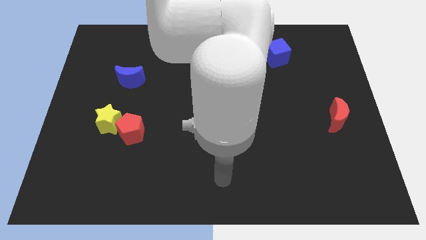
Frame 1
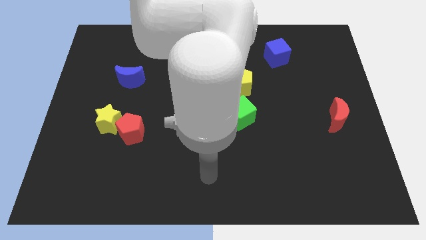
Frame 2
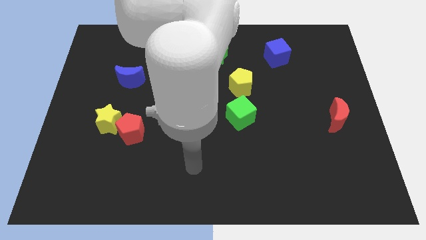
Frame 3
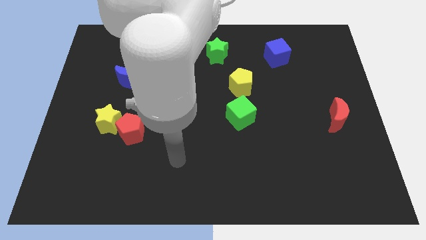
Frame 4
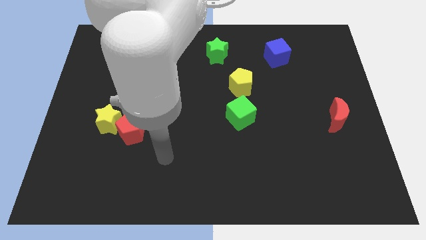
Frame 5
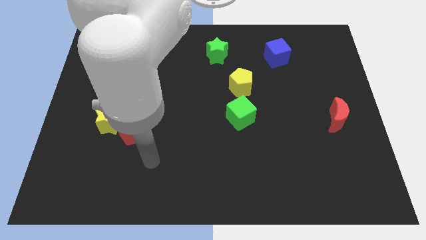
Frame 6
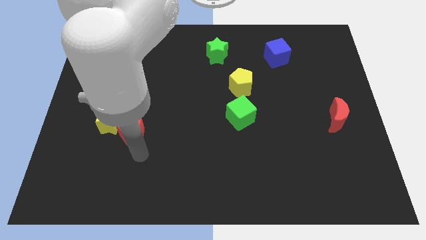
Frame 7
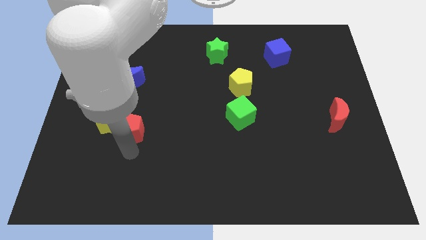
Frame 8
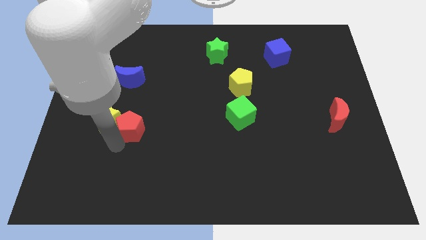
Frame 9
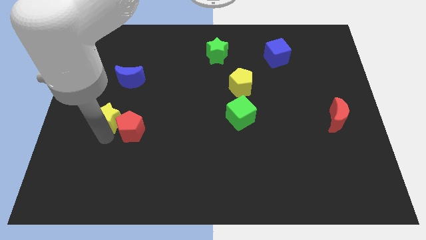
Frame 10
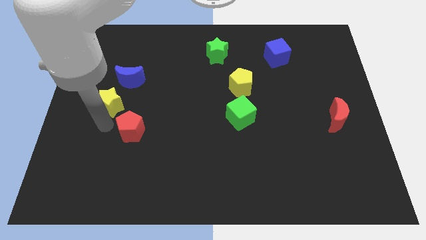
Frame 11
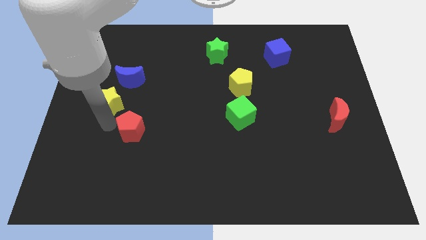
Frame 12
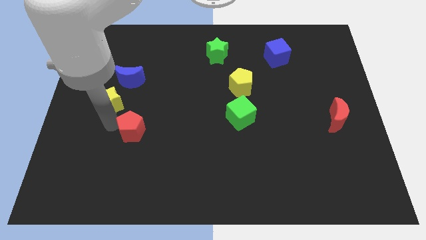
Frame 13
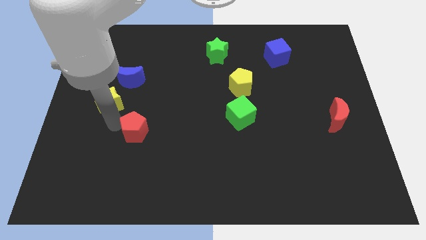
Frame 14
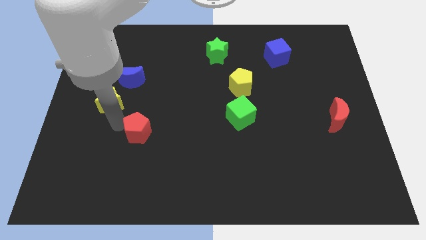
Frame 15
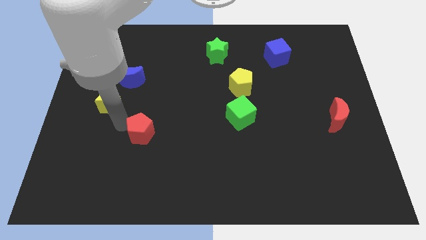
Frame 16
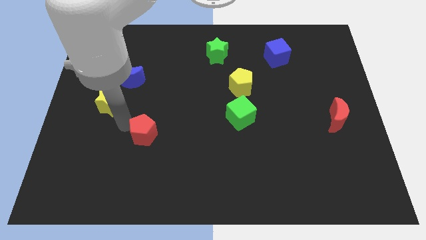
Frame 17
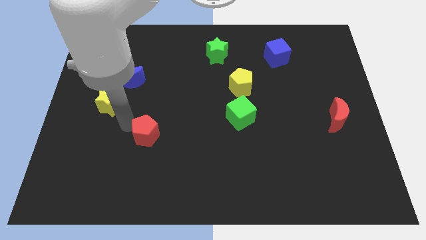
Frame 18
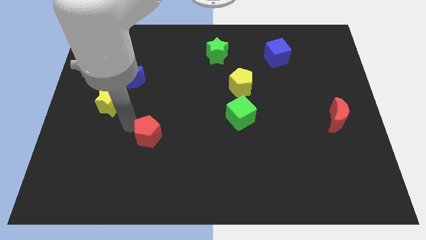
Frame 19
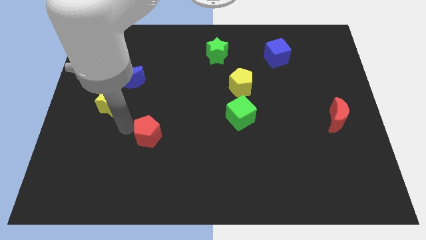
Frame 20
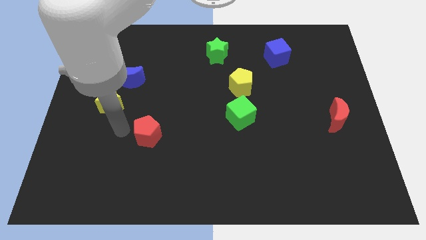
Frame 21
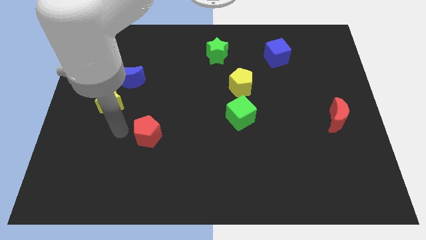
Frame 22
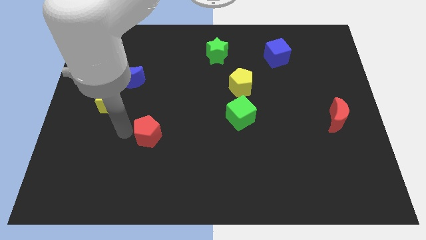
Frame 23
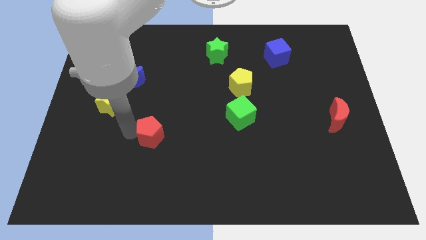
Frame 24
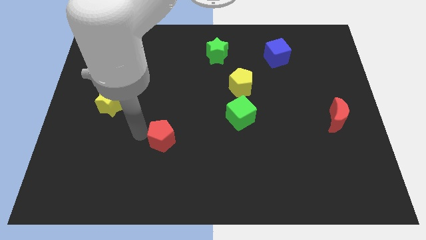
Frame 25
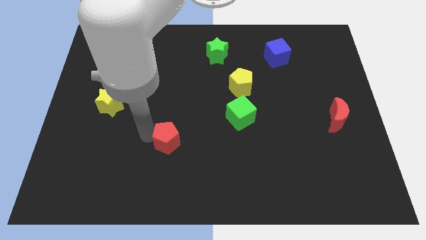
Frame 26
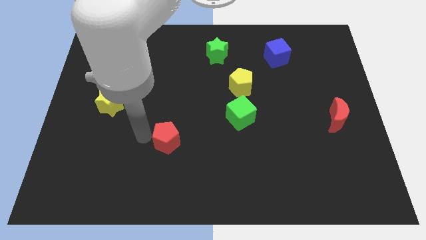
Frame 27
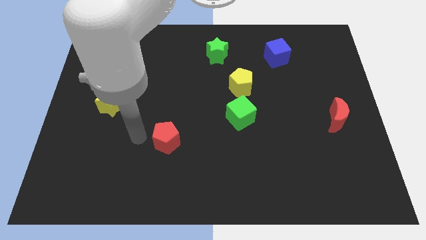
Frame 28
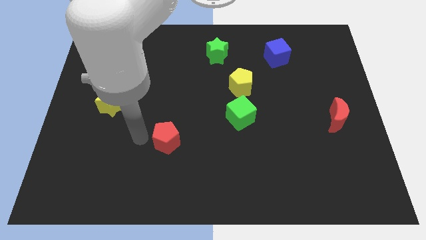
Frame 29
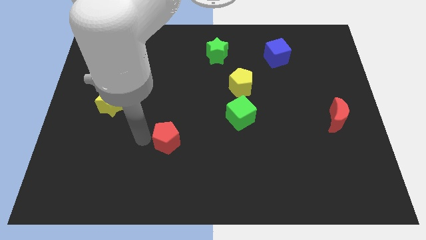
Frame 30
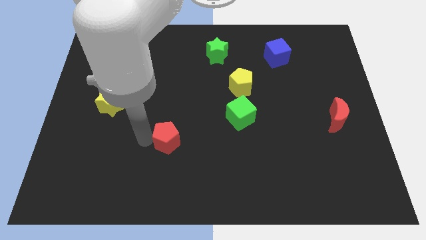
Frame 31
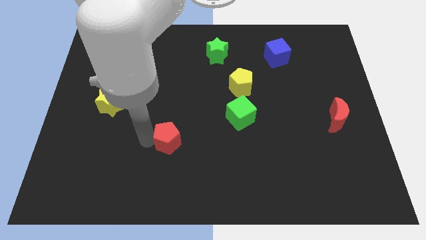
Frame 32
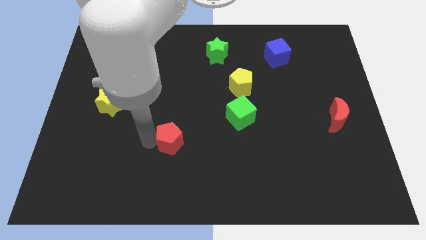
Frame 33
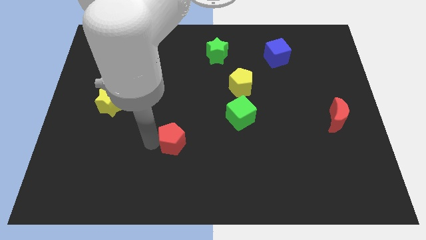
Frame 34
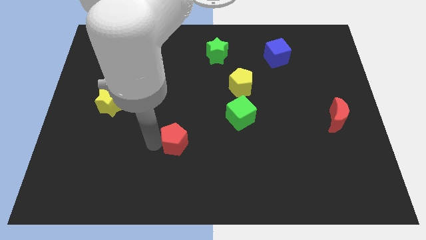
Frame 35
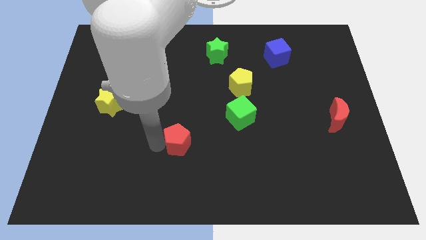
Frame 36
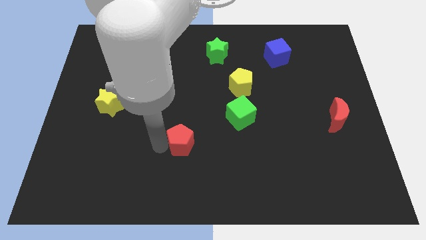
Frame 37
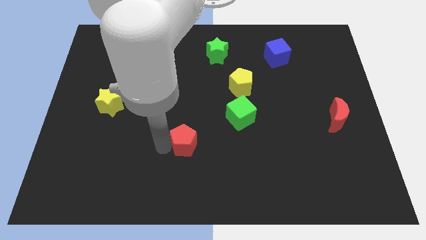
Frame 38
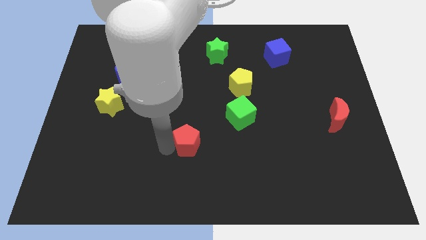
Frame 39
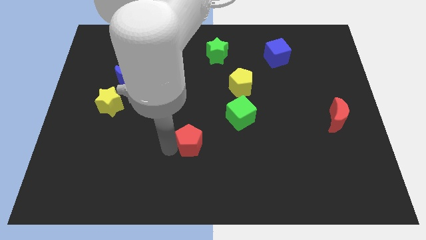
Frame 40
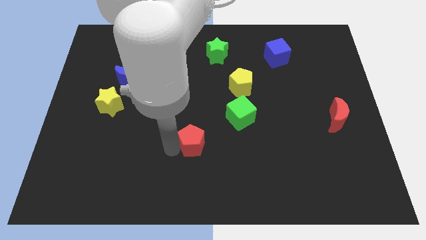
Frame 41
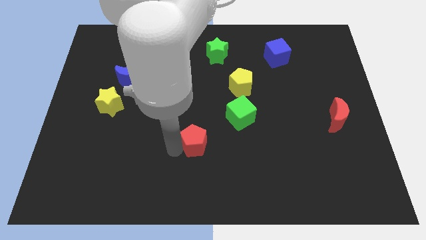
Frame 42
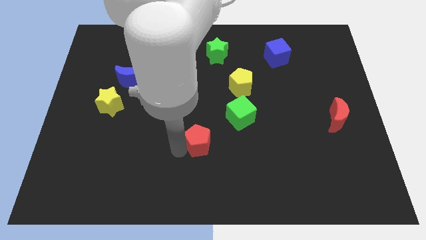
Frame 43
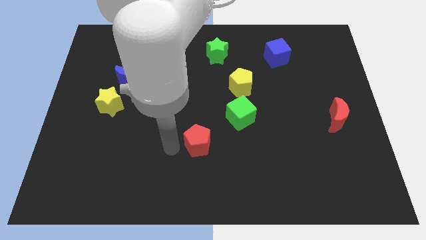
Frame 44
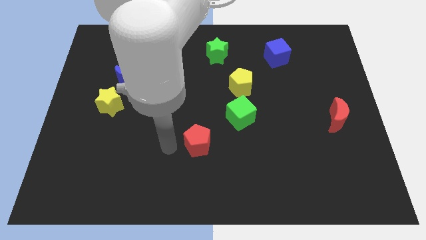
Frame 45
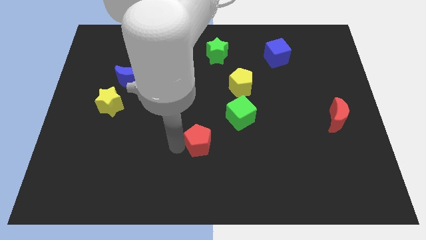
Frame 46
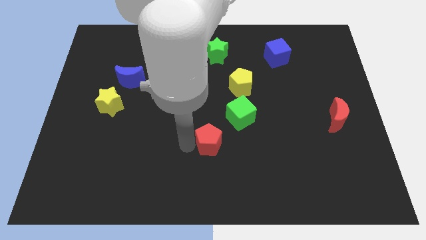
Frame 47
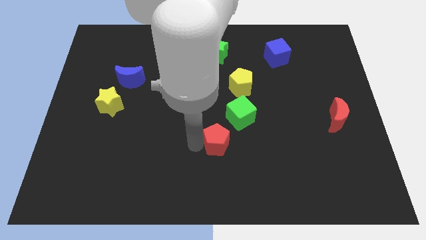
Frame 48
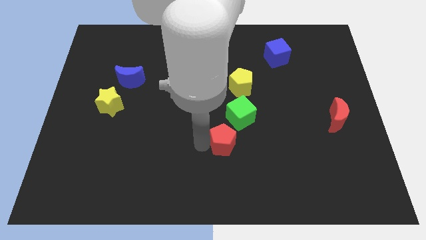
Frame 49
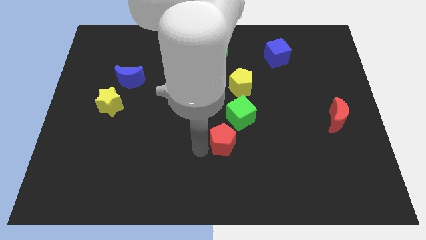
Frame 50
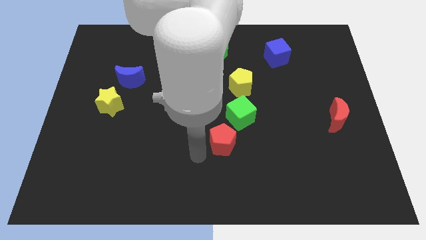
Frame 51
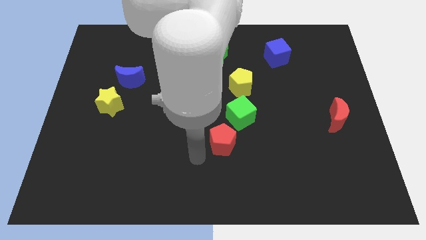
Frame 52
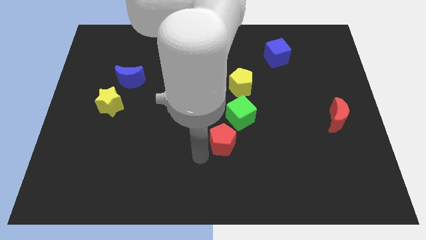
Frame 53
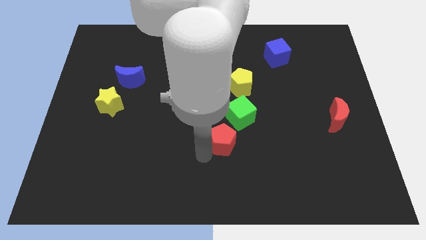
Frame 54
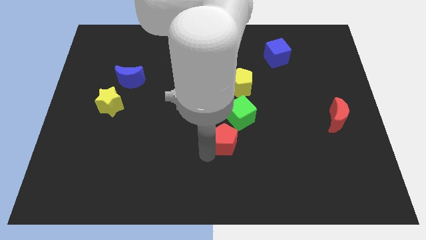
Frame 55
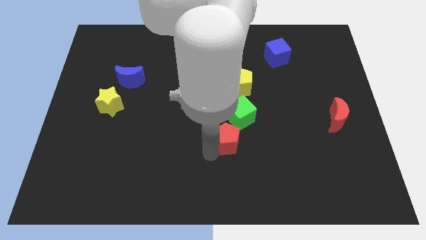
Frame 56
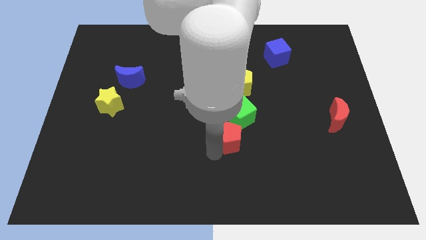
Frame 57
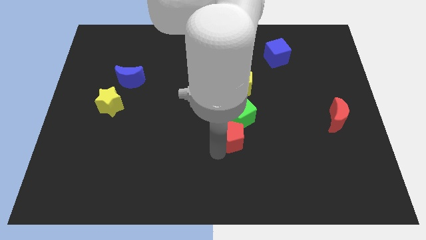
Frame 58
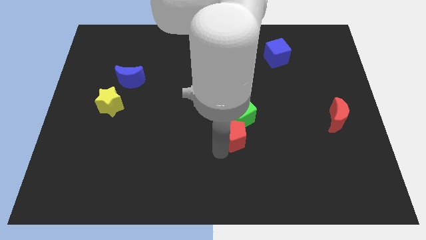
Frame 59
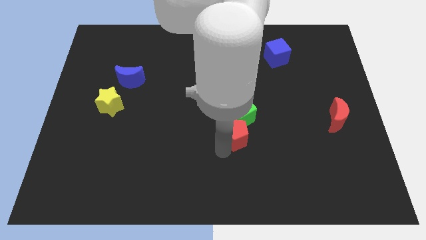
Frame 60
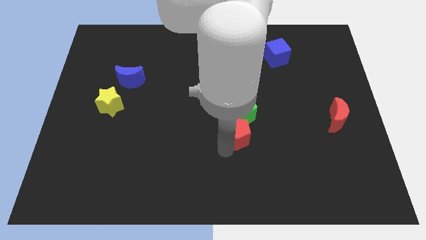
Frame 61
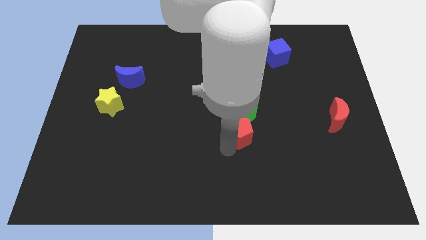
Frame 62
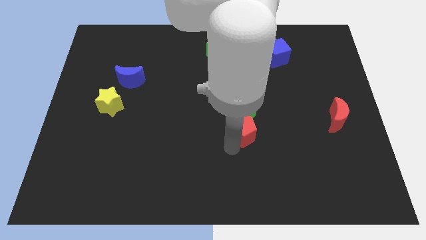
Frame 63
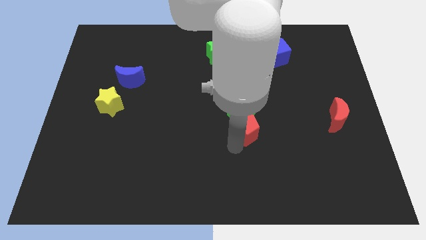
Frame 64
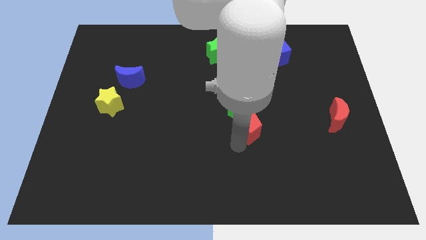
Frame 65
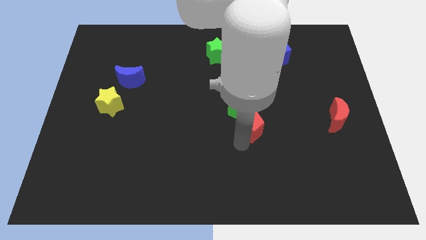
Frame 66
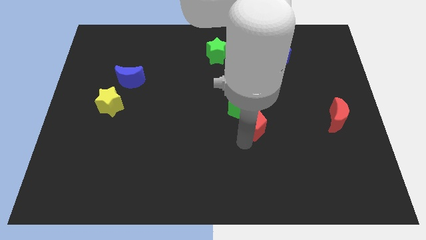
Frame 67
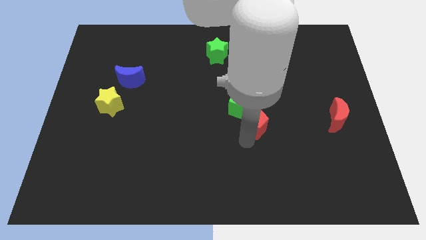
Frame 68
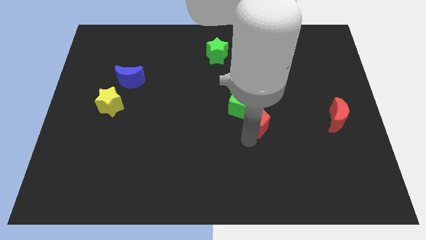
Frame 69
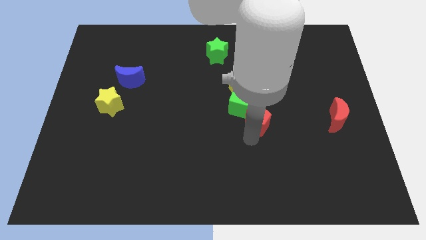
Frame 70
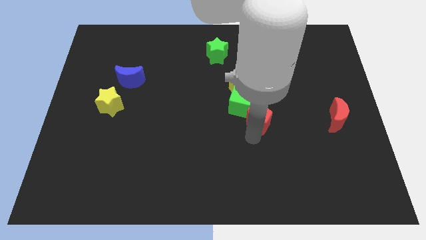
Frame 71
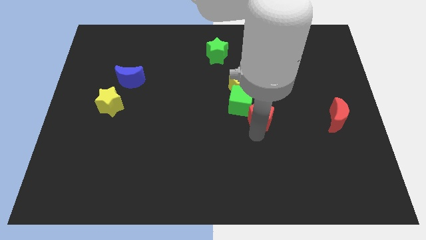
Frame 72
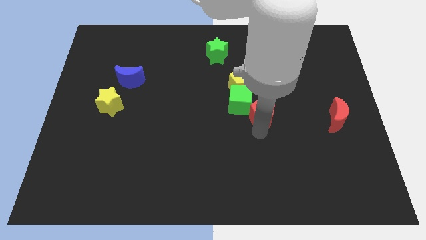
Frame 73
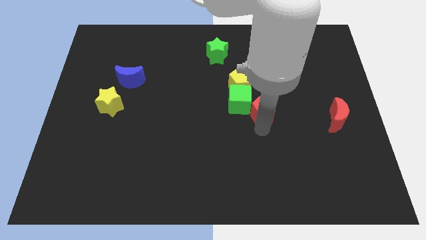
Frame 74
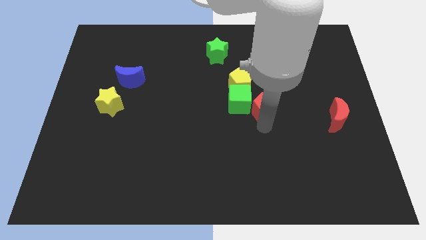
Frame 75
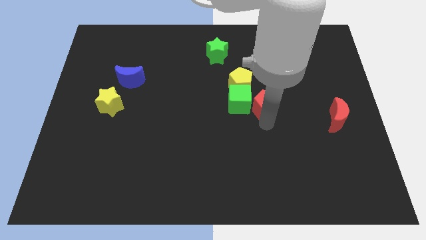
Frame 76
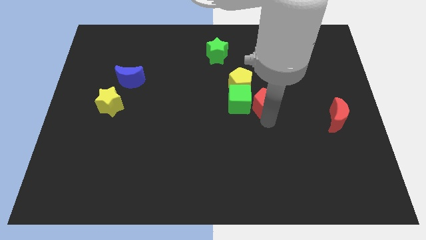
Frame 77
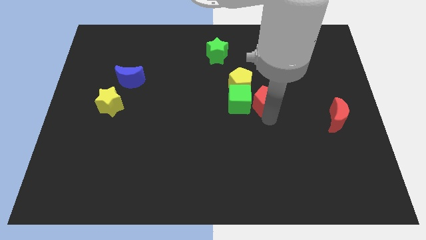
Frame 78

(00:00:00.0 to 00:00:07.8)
slide the red pentagon to the top right of the green cube
